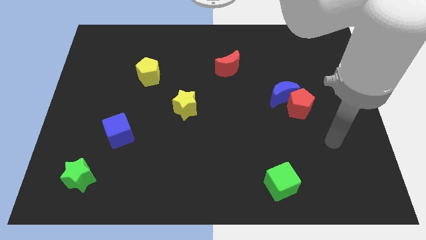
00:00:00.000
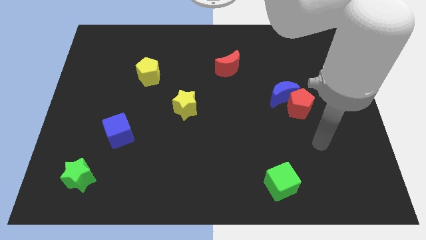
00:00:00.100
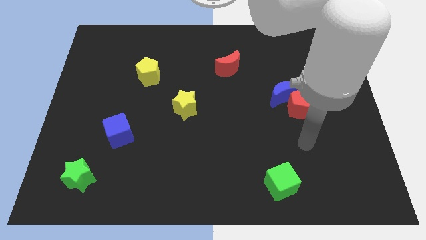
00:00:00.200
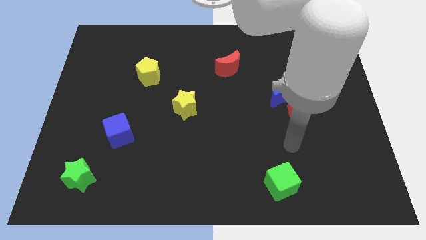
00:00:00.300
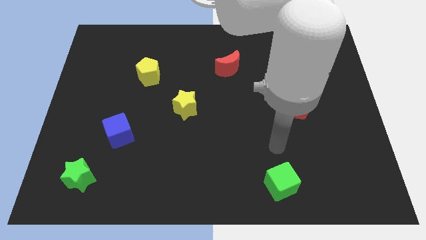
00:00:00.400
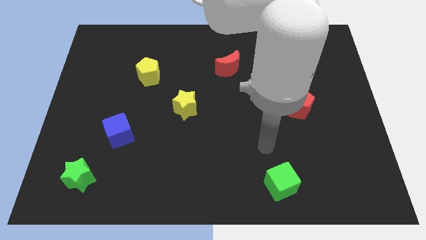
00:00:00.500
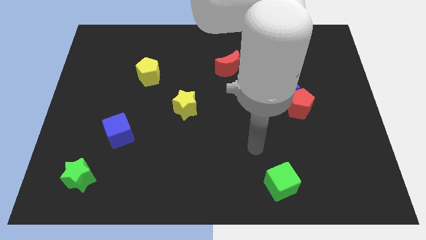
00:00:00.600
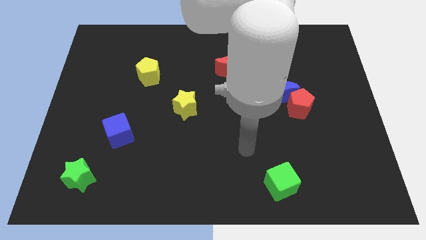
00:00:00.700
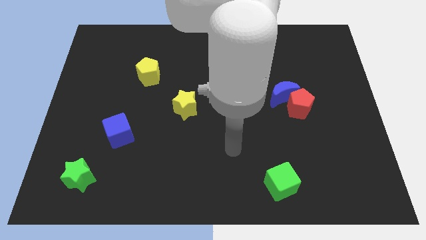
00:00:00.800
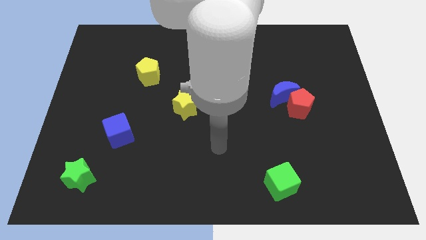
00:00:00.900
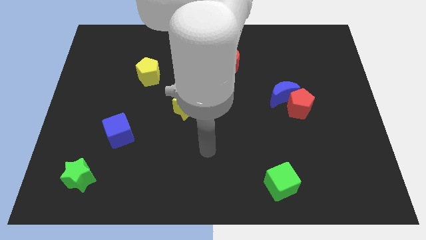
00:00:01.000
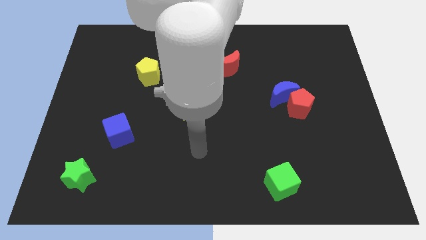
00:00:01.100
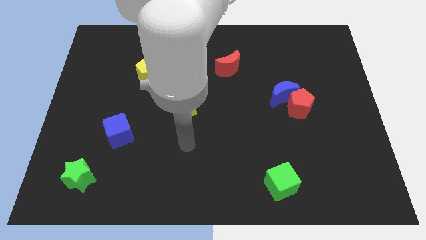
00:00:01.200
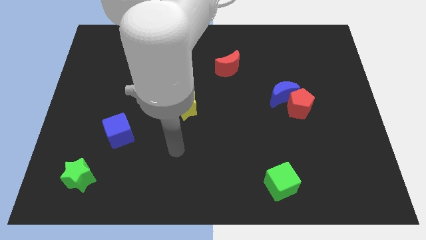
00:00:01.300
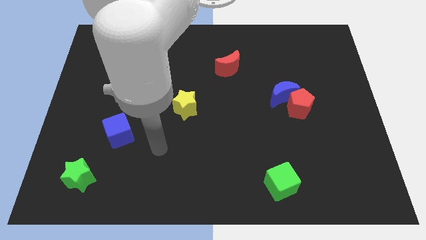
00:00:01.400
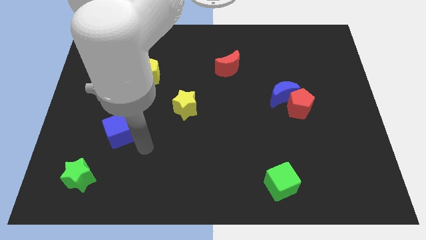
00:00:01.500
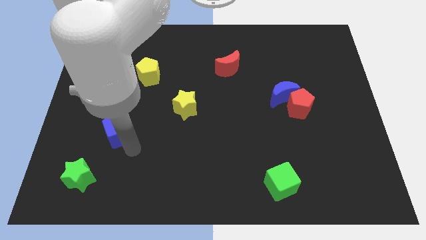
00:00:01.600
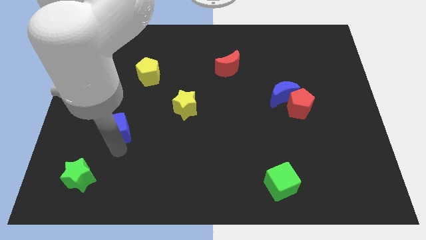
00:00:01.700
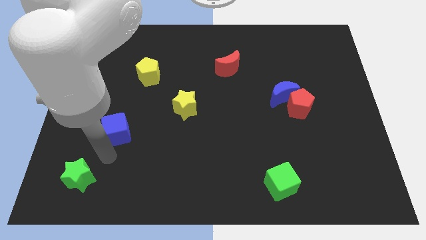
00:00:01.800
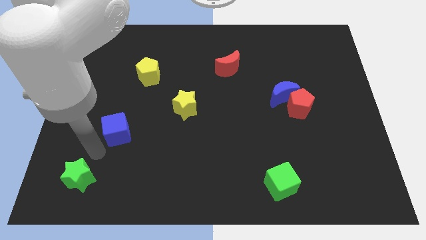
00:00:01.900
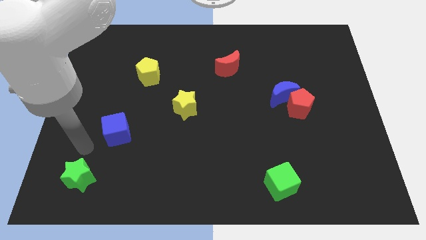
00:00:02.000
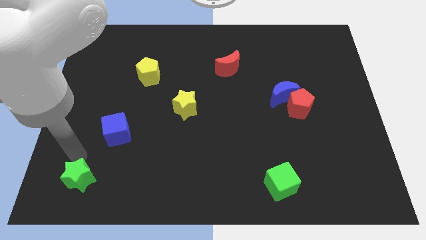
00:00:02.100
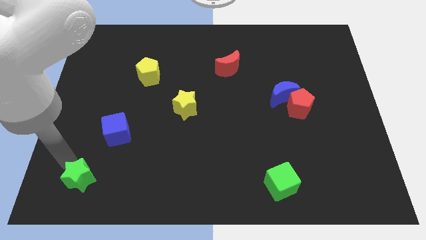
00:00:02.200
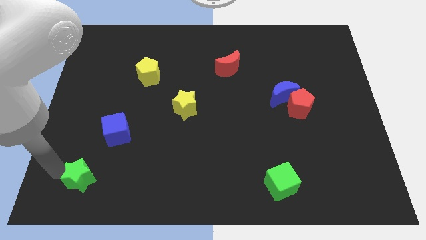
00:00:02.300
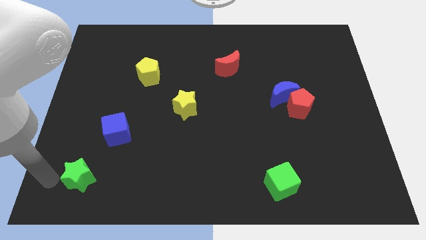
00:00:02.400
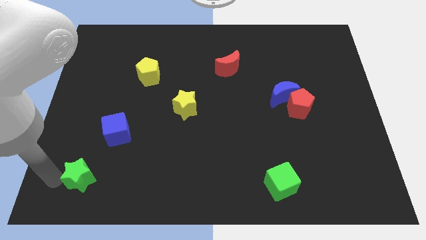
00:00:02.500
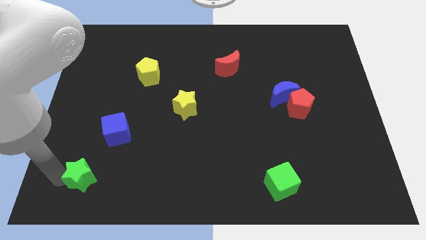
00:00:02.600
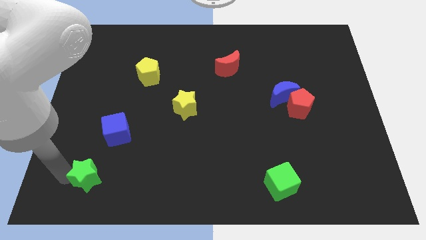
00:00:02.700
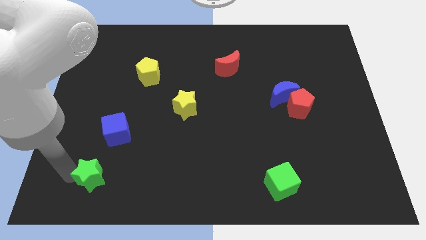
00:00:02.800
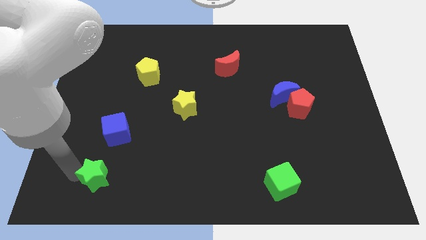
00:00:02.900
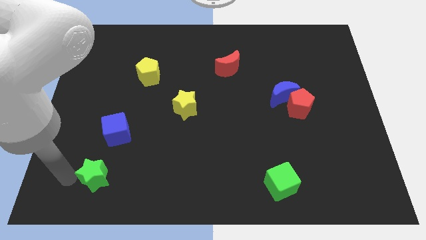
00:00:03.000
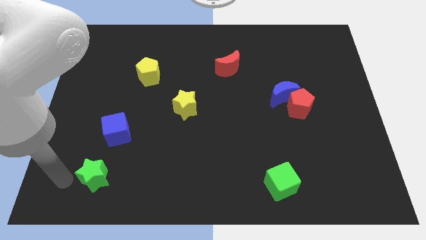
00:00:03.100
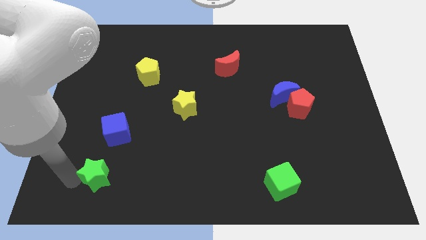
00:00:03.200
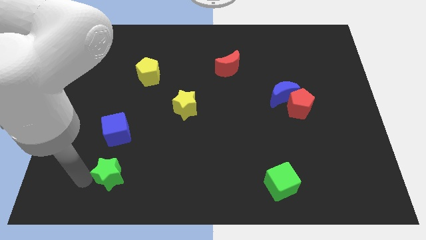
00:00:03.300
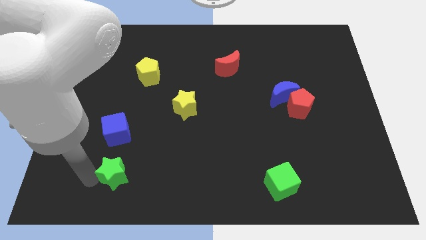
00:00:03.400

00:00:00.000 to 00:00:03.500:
move the green star right a bit

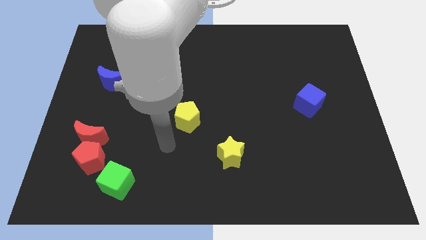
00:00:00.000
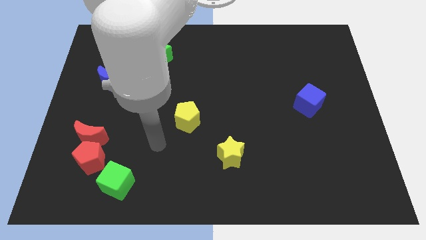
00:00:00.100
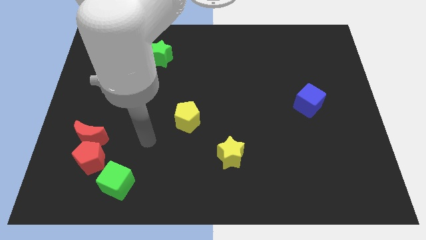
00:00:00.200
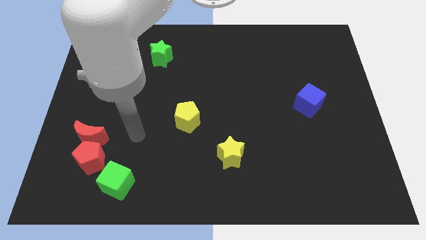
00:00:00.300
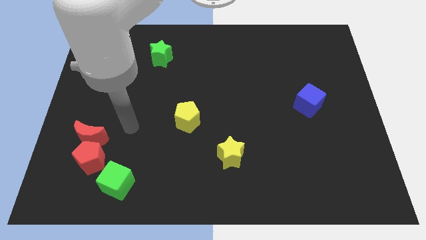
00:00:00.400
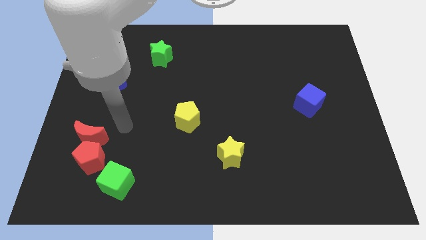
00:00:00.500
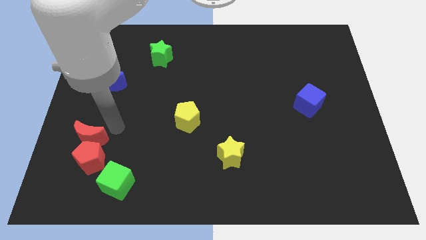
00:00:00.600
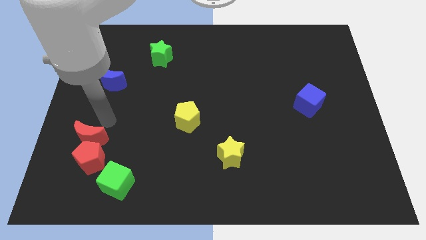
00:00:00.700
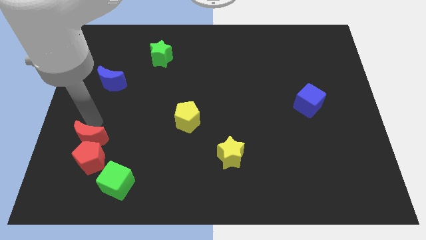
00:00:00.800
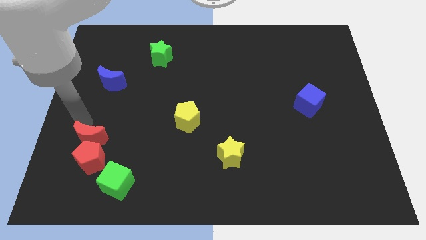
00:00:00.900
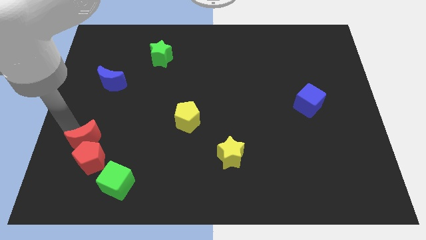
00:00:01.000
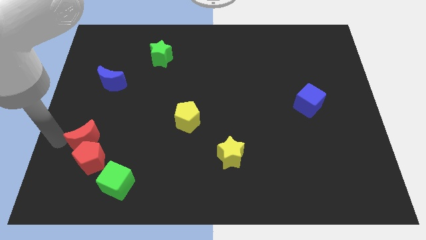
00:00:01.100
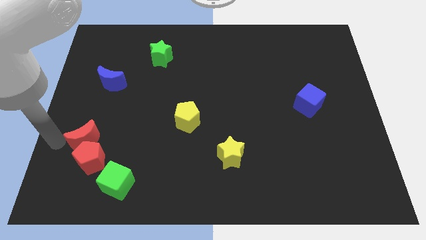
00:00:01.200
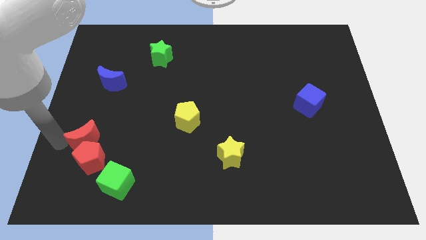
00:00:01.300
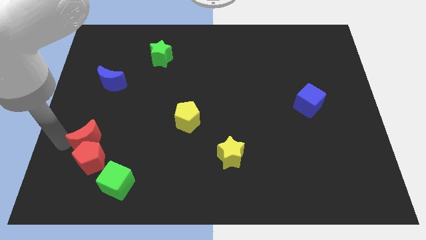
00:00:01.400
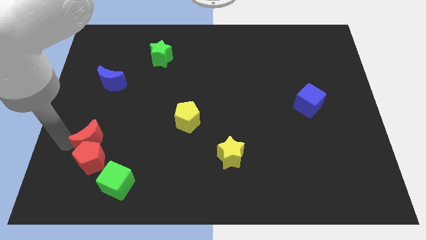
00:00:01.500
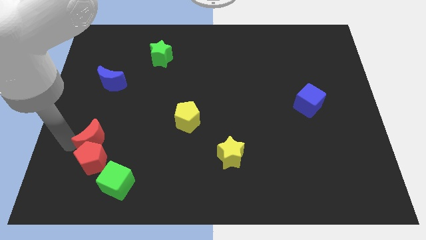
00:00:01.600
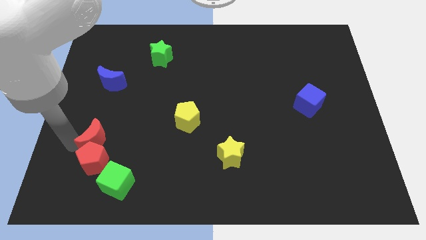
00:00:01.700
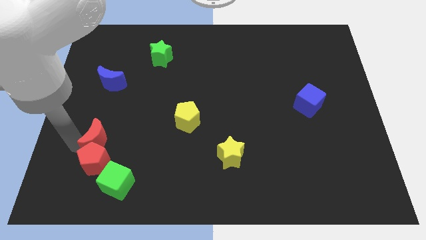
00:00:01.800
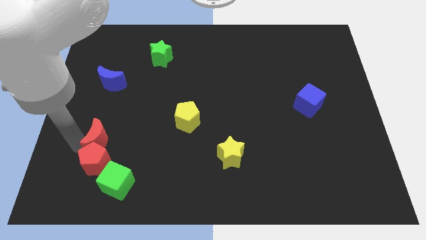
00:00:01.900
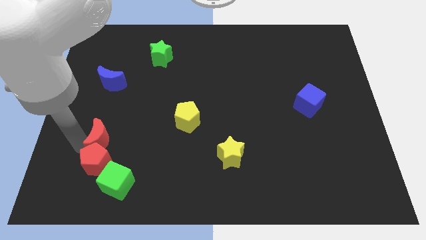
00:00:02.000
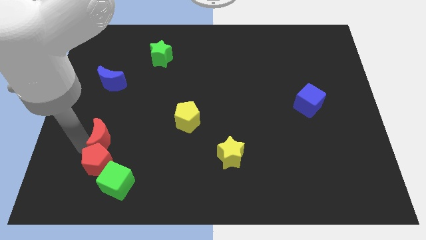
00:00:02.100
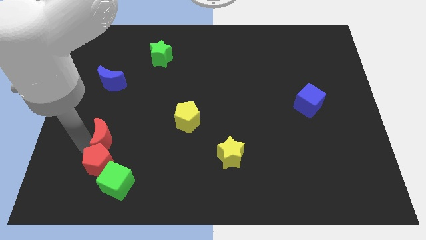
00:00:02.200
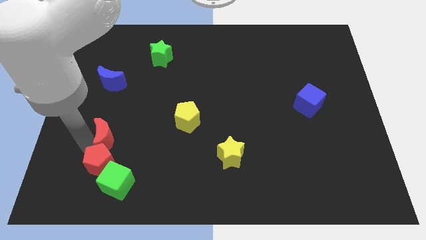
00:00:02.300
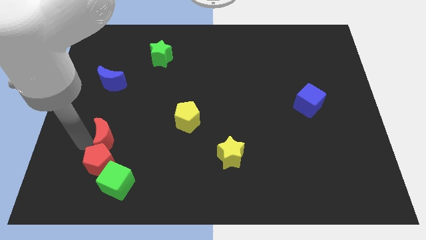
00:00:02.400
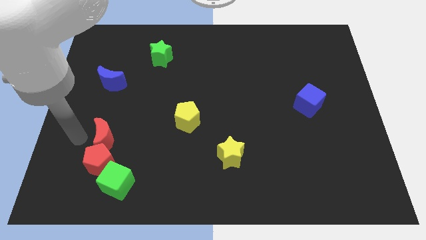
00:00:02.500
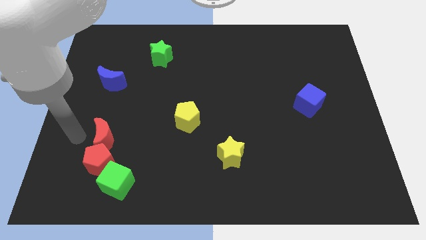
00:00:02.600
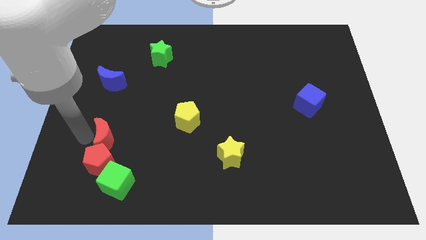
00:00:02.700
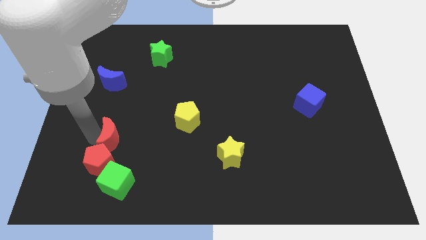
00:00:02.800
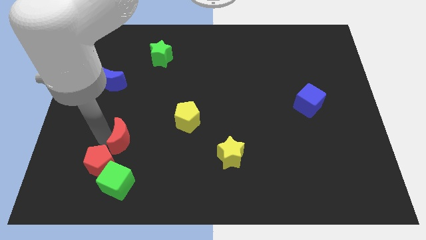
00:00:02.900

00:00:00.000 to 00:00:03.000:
slide the red moon right slightly

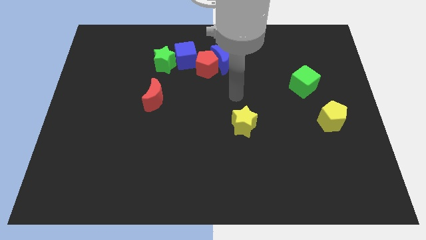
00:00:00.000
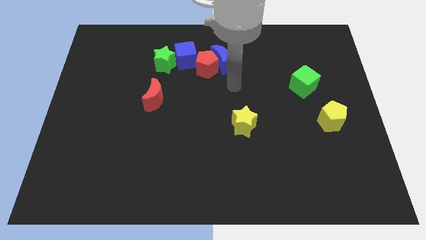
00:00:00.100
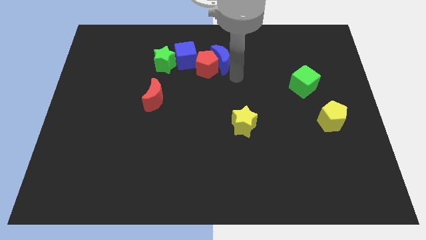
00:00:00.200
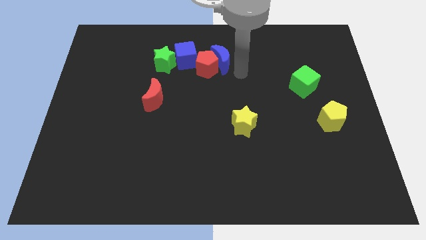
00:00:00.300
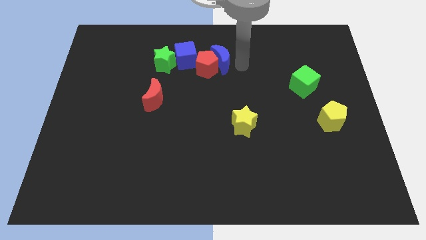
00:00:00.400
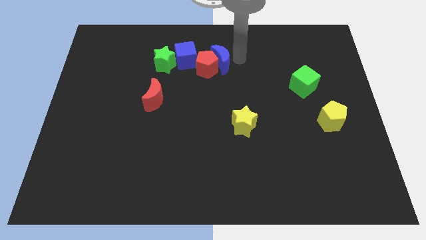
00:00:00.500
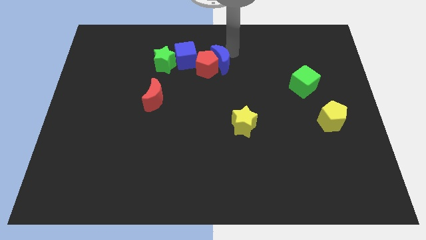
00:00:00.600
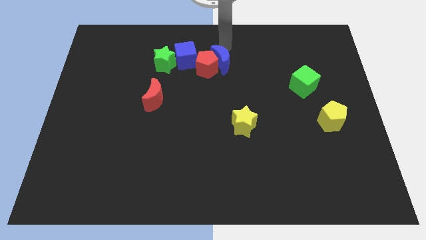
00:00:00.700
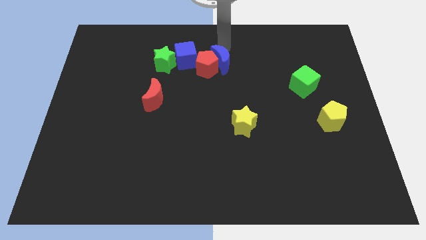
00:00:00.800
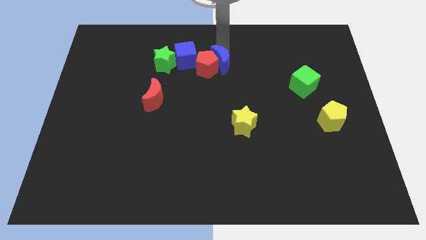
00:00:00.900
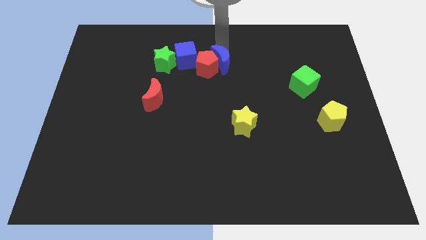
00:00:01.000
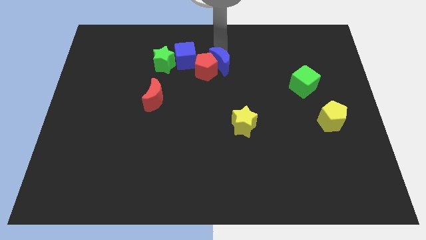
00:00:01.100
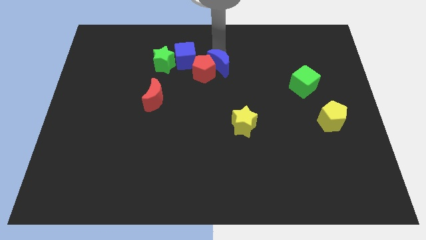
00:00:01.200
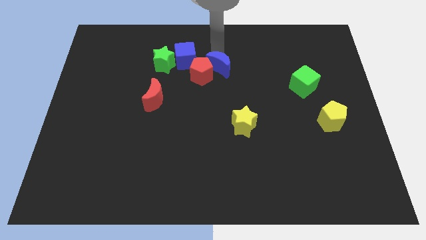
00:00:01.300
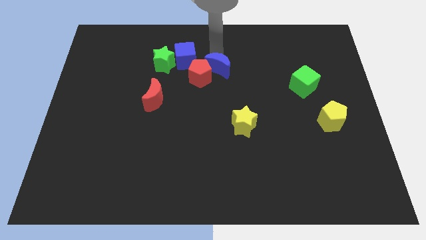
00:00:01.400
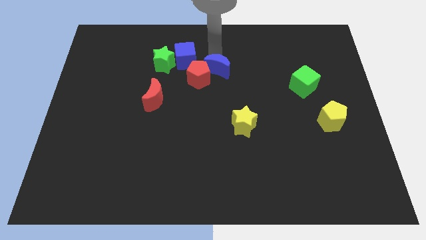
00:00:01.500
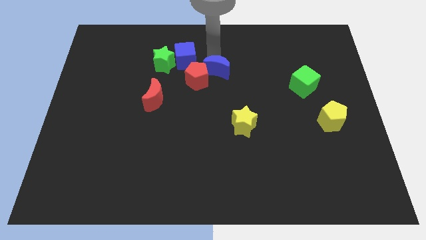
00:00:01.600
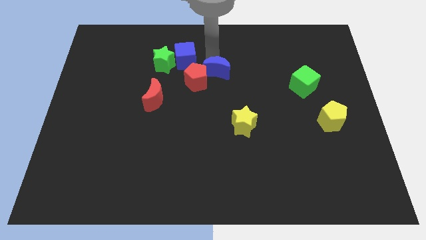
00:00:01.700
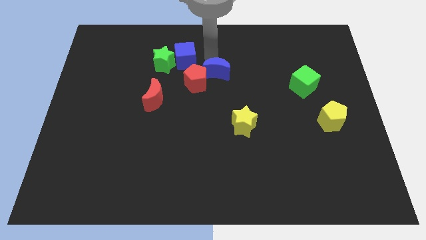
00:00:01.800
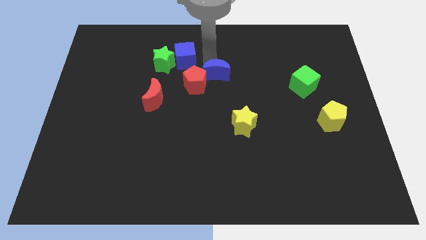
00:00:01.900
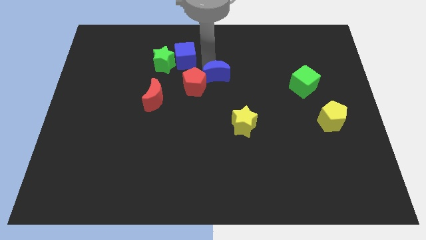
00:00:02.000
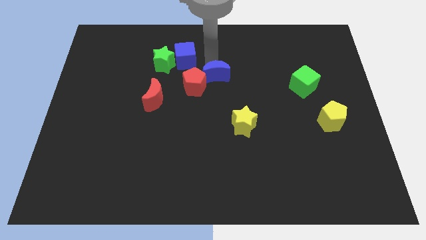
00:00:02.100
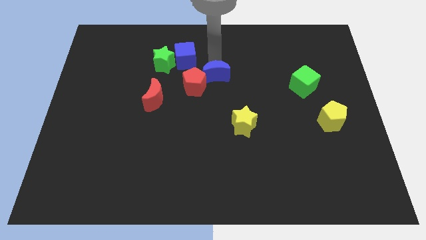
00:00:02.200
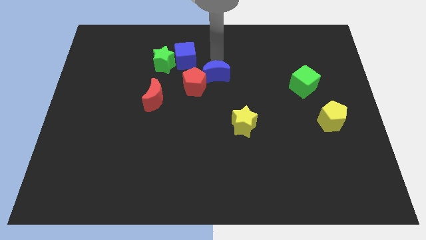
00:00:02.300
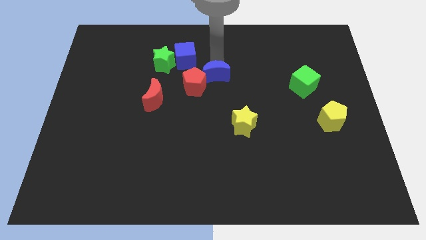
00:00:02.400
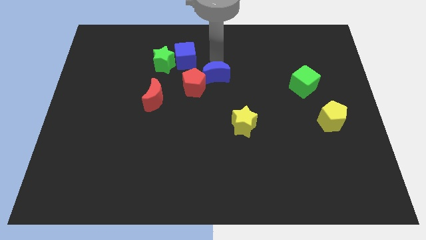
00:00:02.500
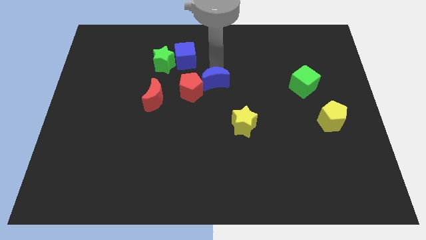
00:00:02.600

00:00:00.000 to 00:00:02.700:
slide the blue moon down somewhat
